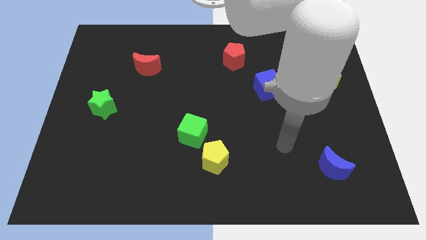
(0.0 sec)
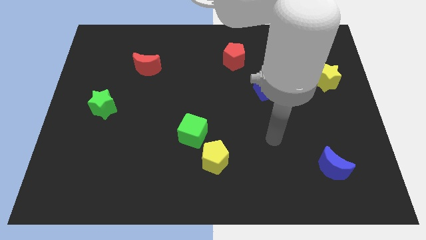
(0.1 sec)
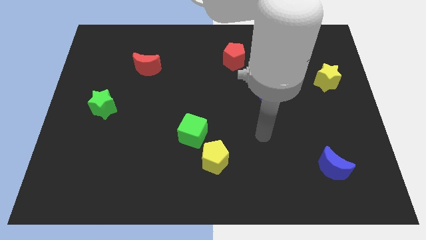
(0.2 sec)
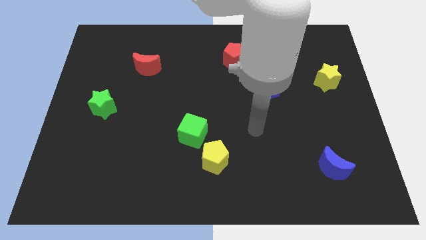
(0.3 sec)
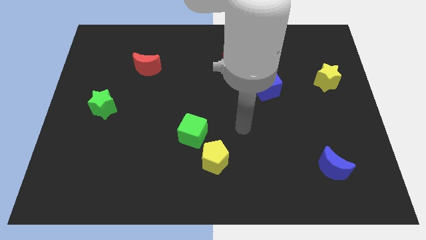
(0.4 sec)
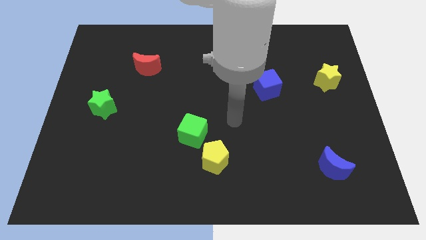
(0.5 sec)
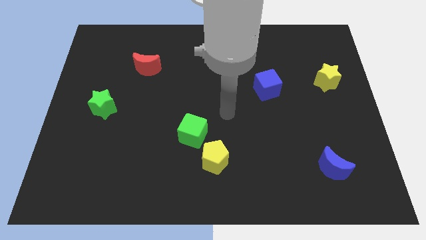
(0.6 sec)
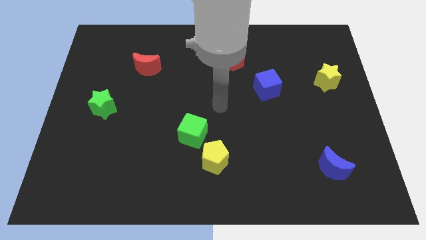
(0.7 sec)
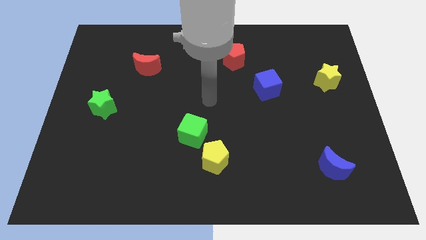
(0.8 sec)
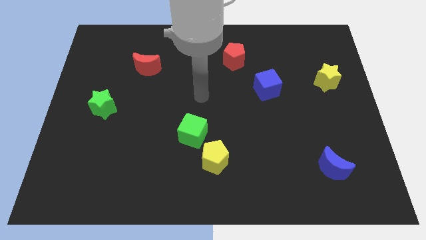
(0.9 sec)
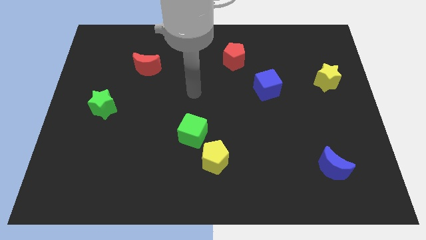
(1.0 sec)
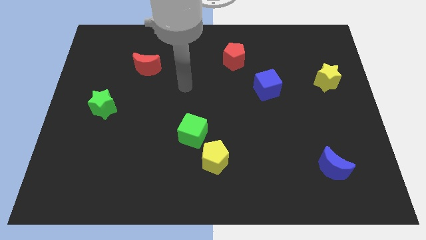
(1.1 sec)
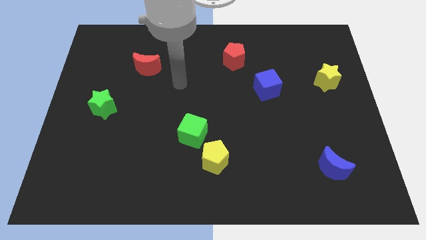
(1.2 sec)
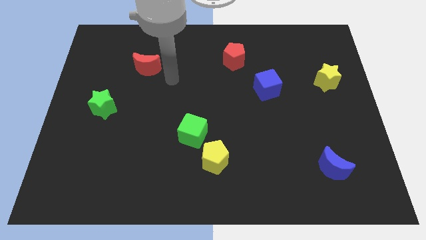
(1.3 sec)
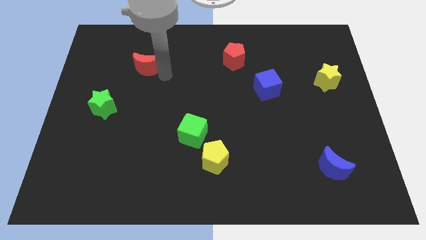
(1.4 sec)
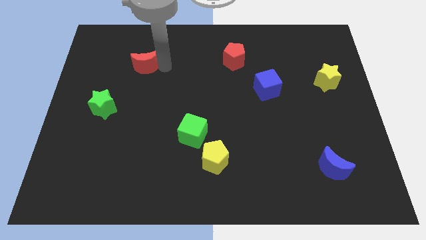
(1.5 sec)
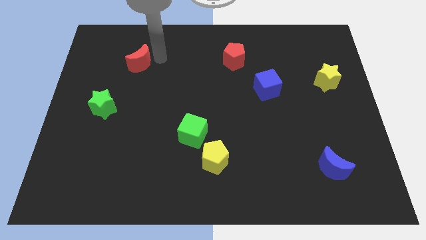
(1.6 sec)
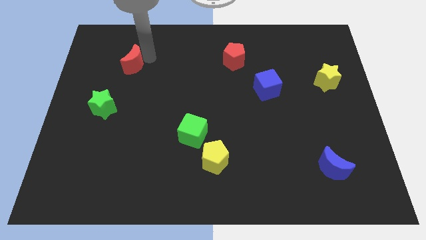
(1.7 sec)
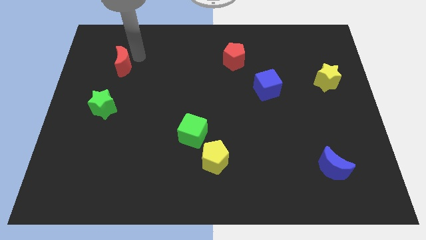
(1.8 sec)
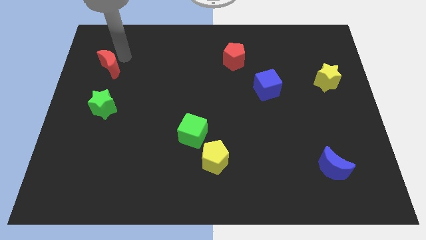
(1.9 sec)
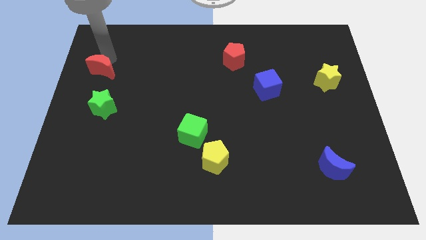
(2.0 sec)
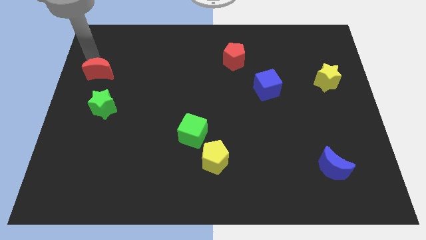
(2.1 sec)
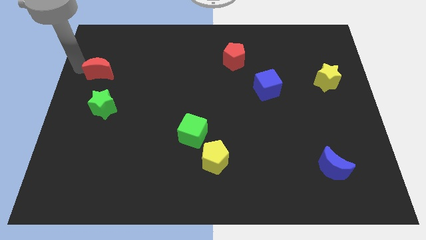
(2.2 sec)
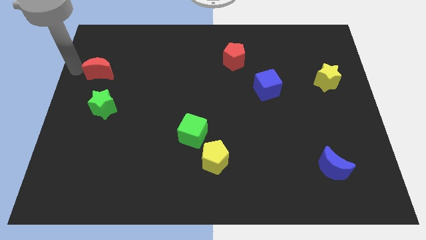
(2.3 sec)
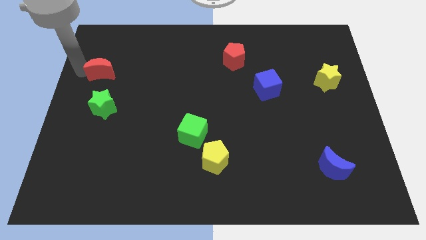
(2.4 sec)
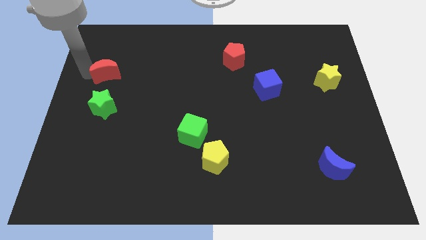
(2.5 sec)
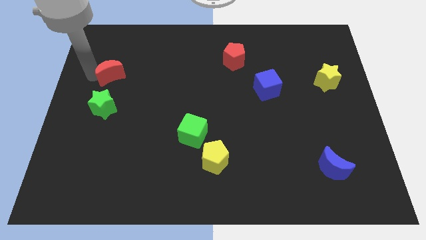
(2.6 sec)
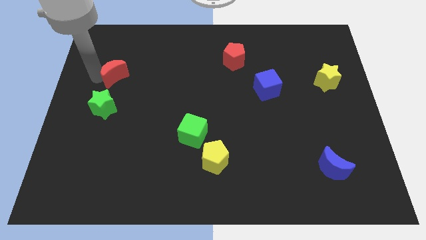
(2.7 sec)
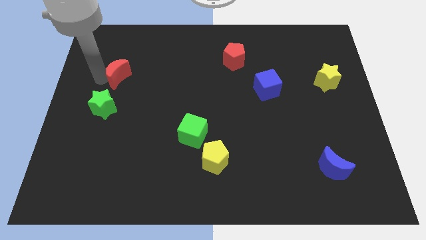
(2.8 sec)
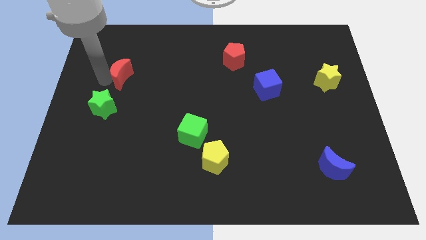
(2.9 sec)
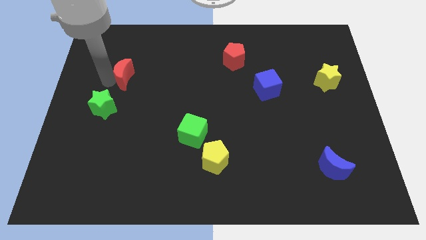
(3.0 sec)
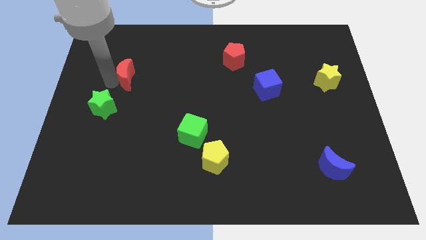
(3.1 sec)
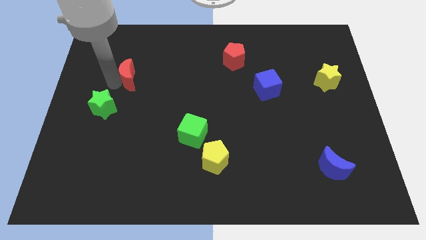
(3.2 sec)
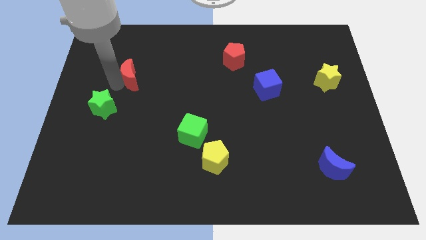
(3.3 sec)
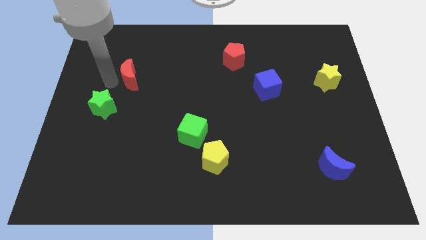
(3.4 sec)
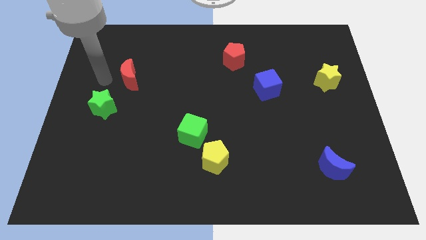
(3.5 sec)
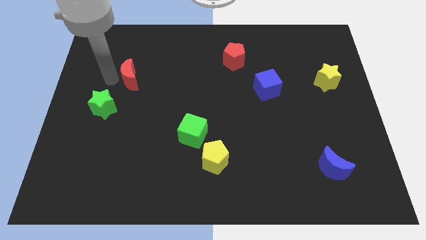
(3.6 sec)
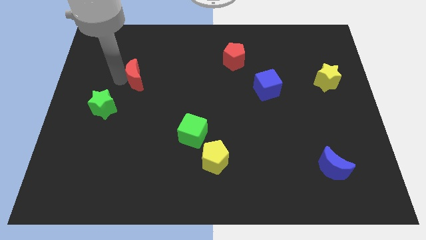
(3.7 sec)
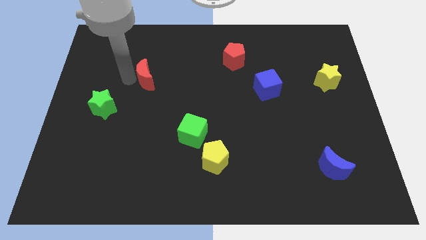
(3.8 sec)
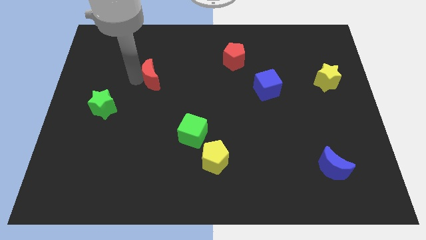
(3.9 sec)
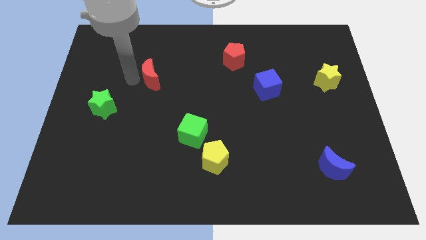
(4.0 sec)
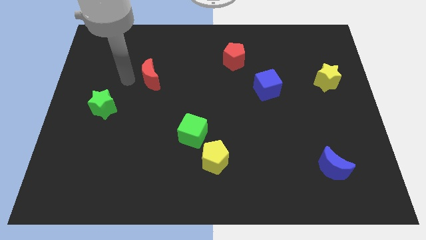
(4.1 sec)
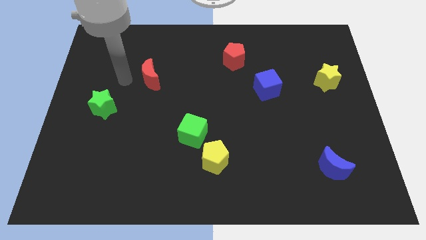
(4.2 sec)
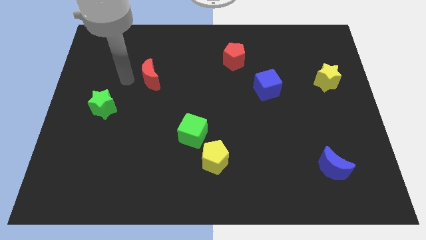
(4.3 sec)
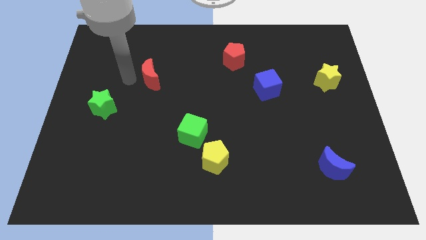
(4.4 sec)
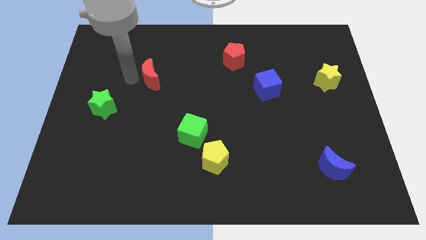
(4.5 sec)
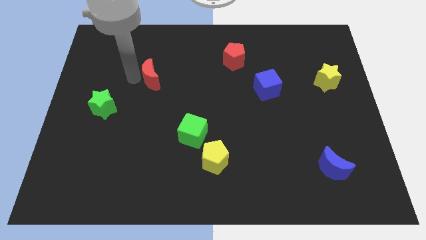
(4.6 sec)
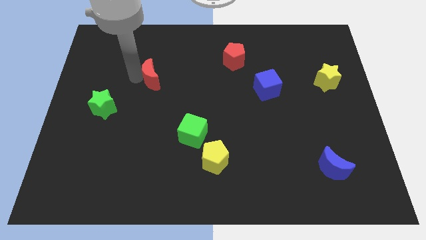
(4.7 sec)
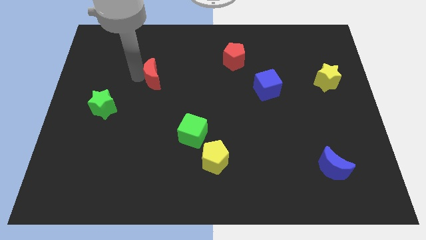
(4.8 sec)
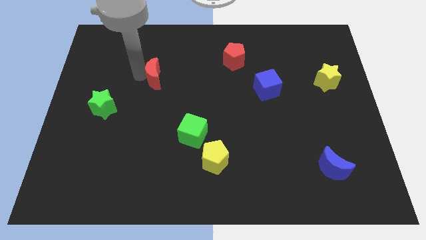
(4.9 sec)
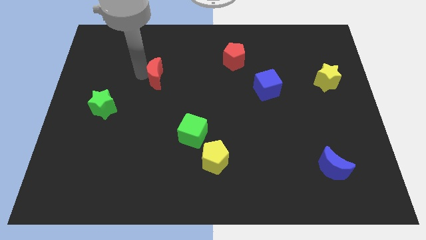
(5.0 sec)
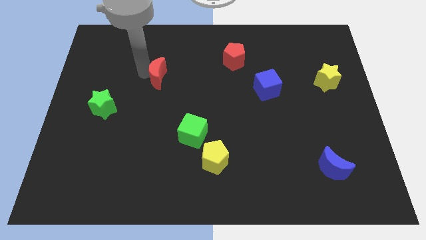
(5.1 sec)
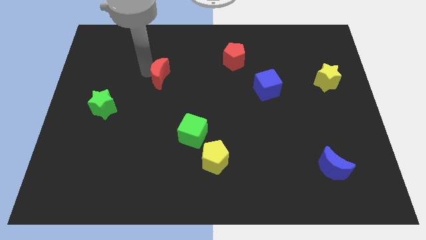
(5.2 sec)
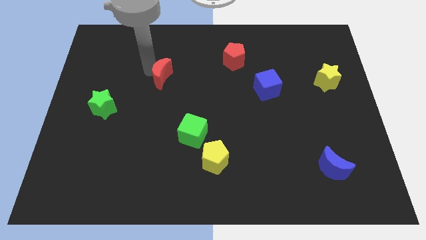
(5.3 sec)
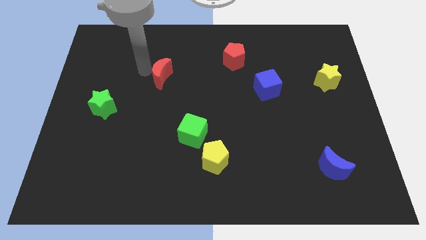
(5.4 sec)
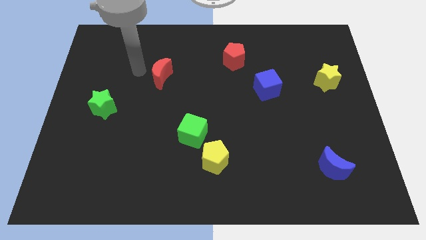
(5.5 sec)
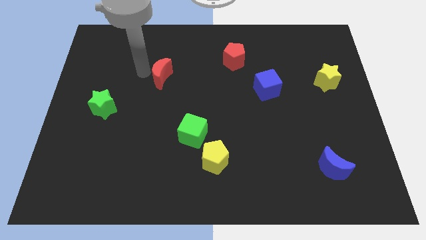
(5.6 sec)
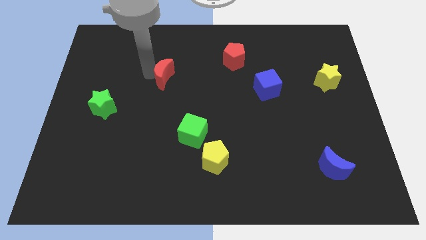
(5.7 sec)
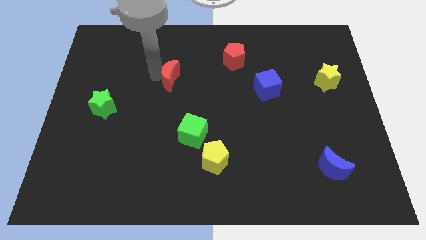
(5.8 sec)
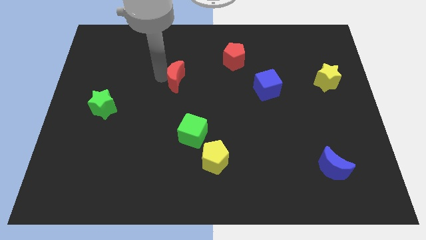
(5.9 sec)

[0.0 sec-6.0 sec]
move the red moon to the center of the board

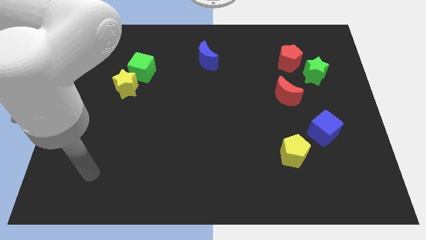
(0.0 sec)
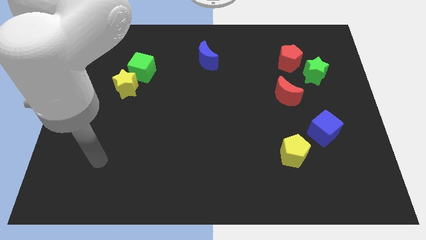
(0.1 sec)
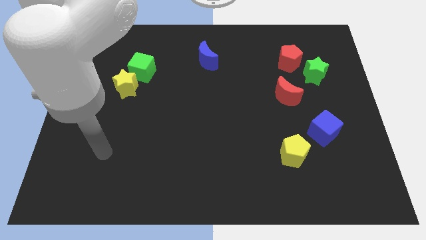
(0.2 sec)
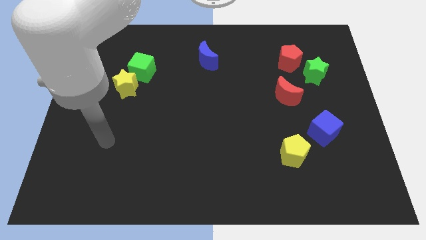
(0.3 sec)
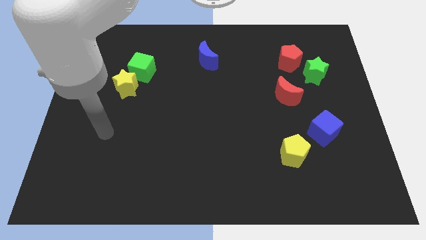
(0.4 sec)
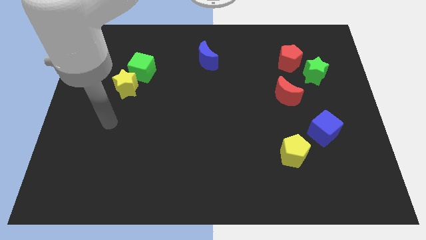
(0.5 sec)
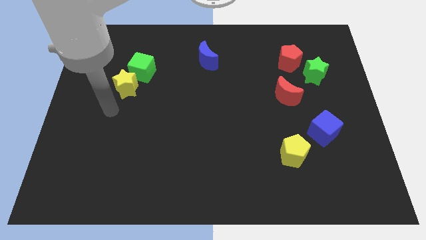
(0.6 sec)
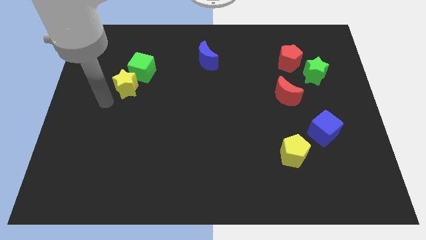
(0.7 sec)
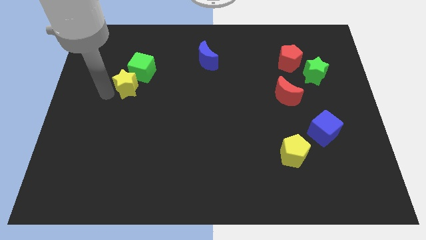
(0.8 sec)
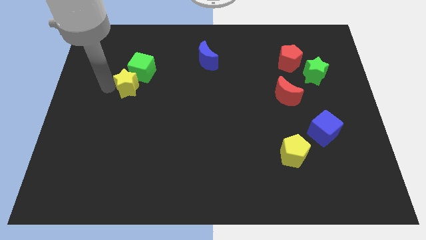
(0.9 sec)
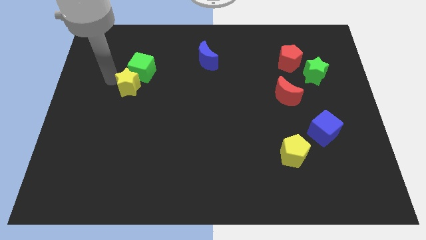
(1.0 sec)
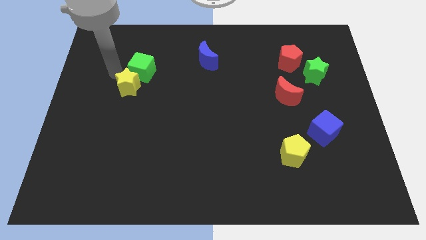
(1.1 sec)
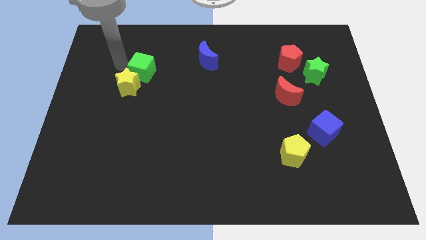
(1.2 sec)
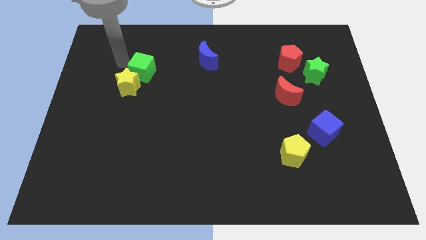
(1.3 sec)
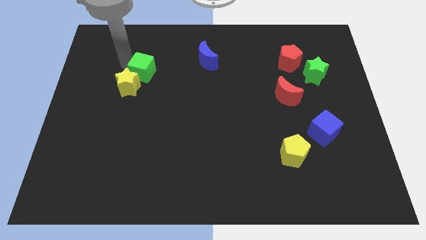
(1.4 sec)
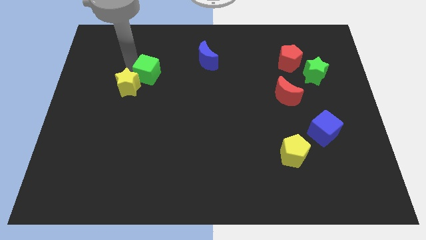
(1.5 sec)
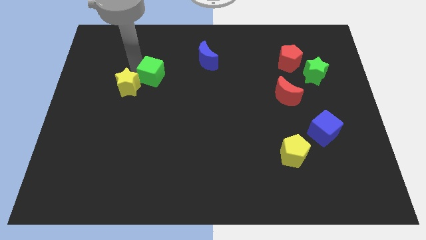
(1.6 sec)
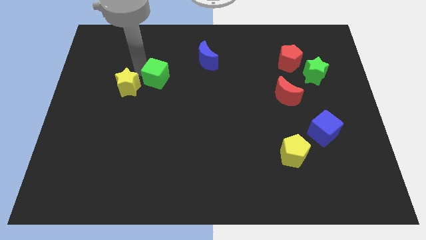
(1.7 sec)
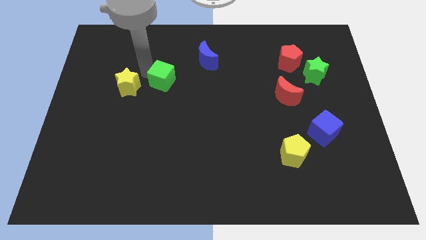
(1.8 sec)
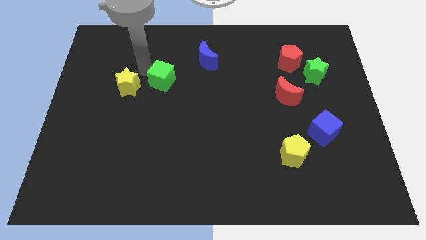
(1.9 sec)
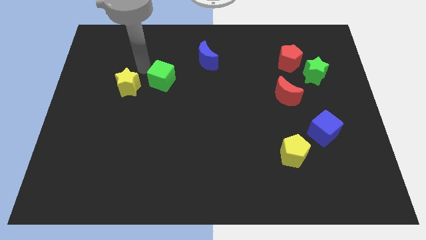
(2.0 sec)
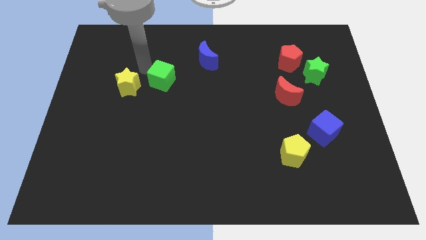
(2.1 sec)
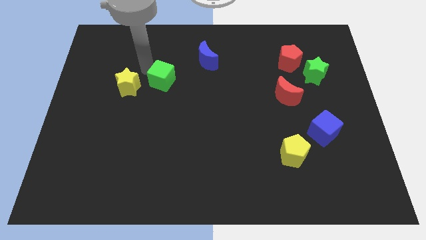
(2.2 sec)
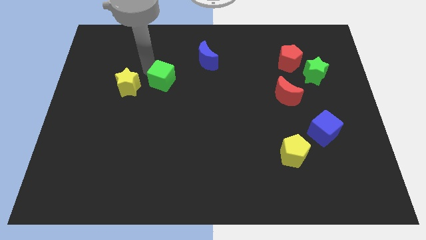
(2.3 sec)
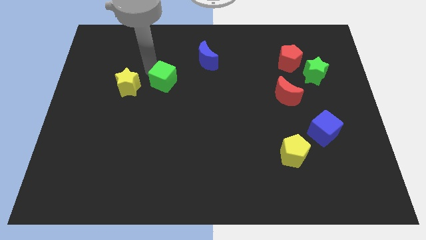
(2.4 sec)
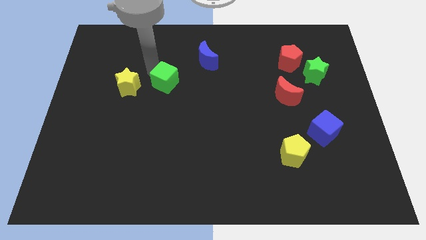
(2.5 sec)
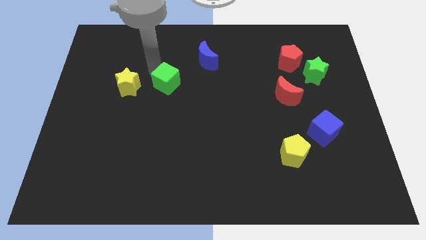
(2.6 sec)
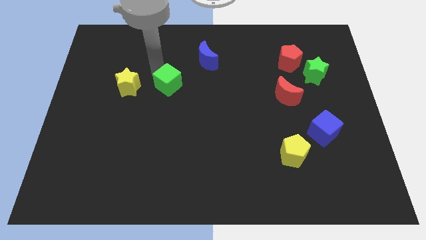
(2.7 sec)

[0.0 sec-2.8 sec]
push the green cube to the middle
